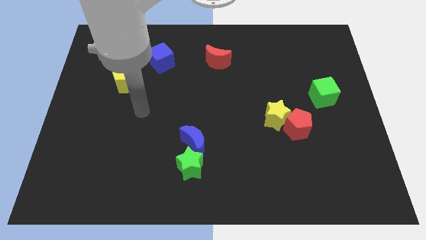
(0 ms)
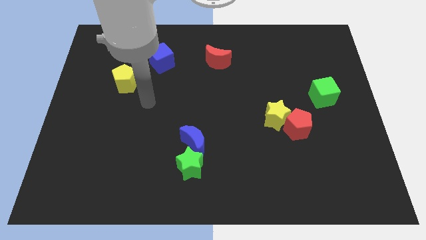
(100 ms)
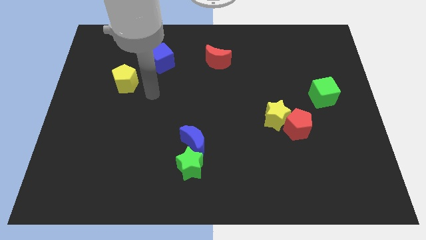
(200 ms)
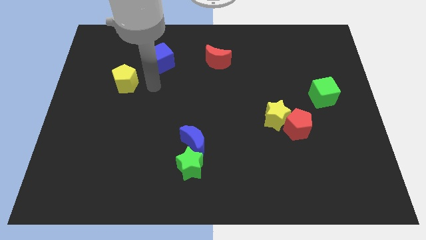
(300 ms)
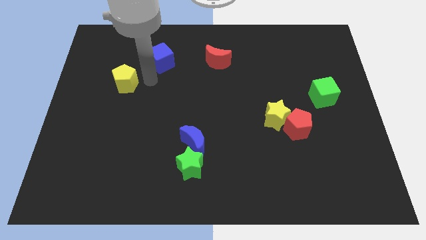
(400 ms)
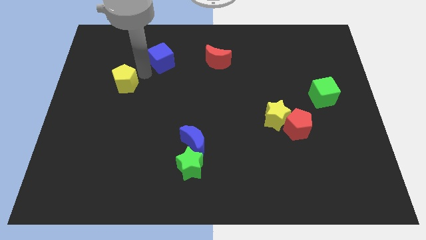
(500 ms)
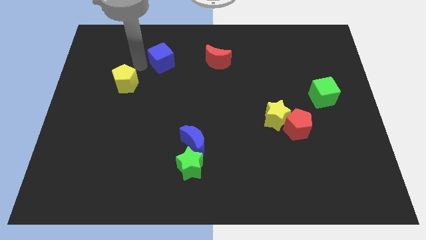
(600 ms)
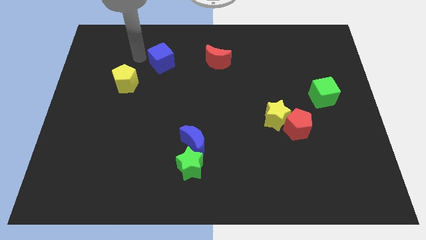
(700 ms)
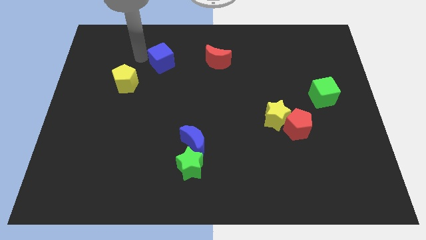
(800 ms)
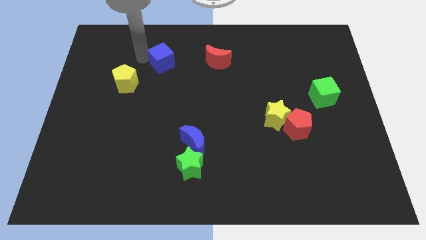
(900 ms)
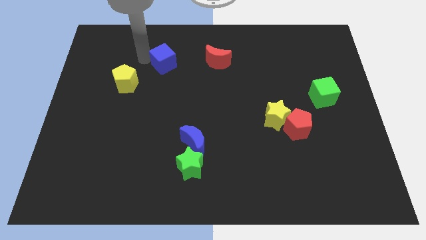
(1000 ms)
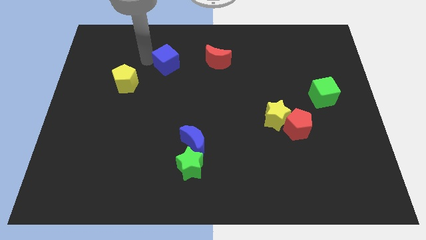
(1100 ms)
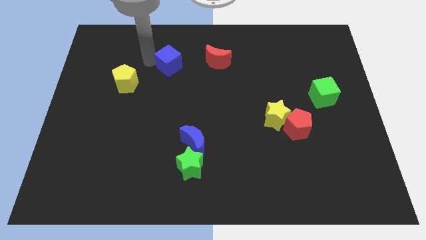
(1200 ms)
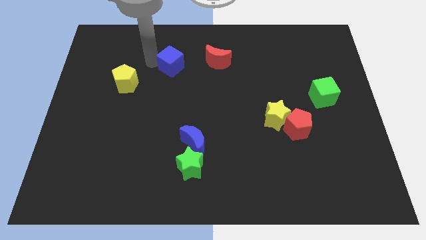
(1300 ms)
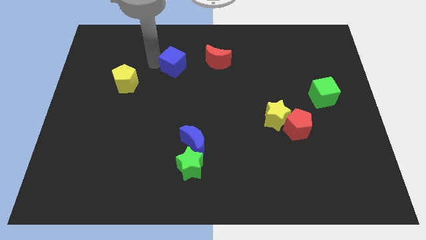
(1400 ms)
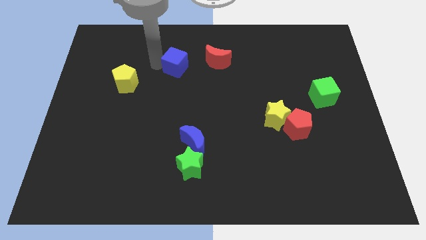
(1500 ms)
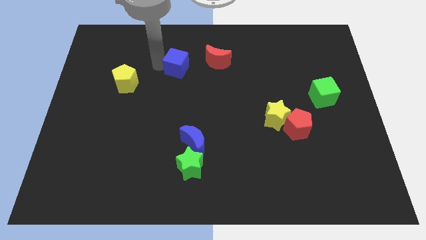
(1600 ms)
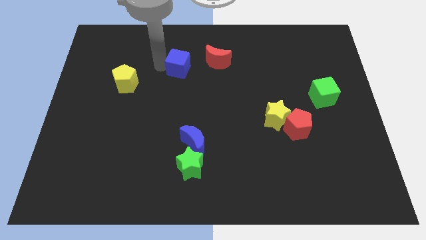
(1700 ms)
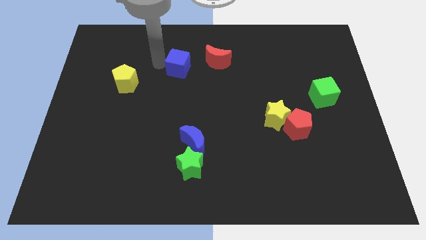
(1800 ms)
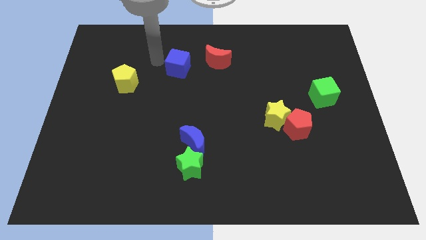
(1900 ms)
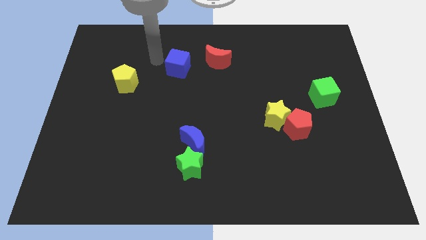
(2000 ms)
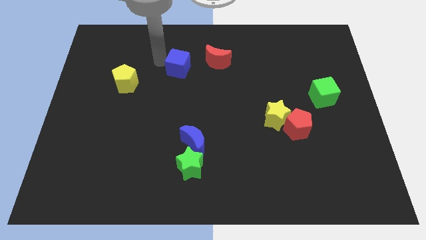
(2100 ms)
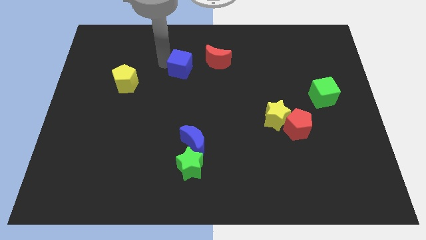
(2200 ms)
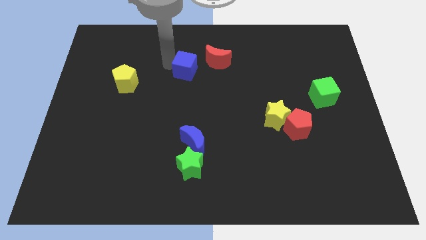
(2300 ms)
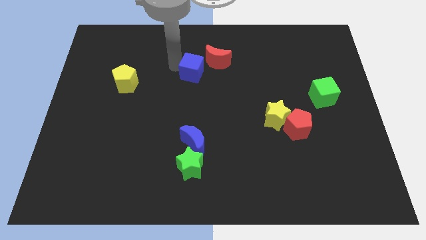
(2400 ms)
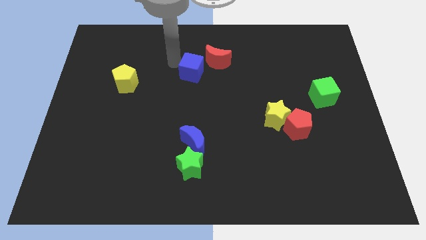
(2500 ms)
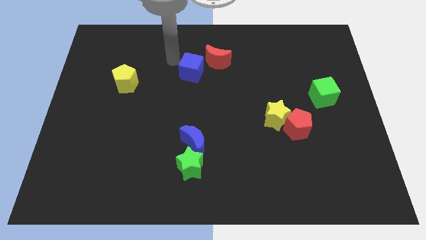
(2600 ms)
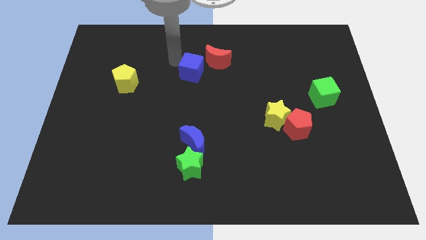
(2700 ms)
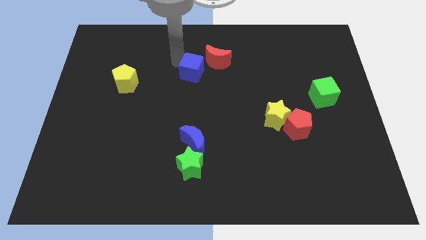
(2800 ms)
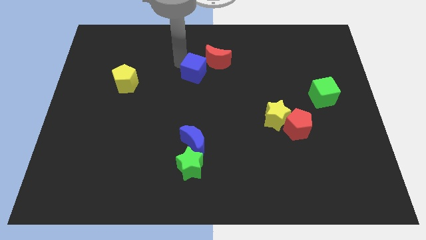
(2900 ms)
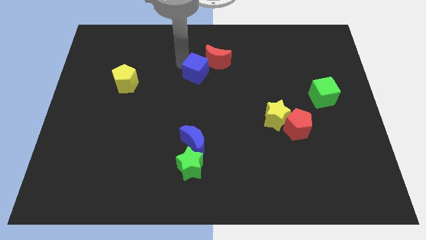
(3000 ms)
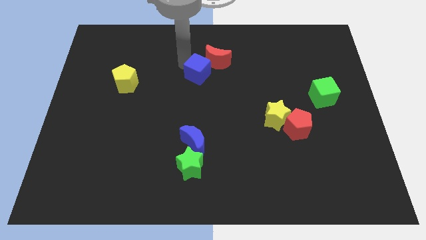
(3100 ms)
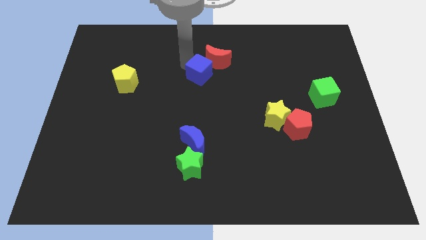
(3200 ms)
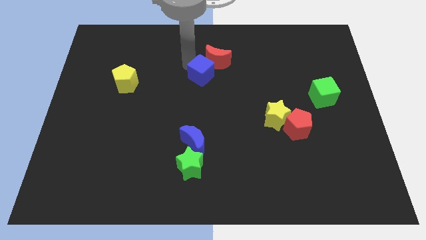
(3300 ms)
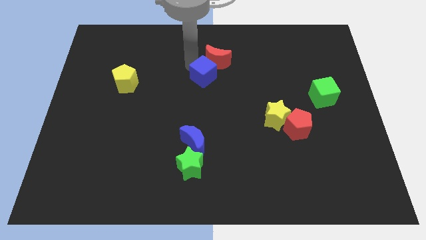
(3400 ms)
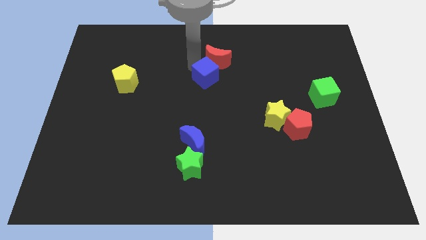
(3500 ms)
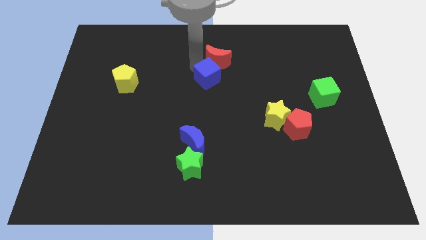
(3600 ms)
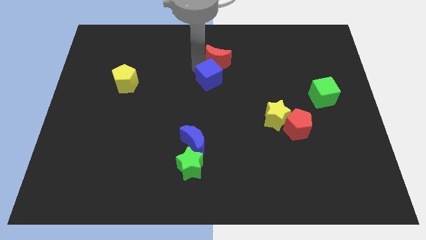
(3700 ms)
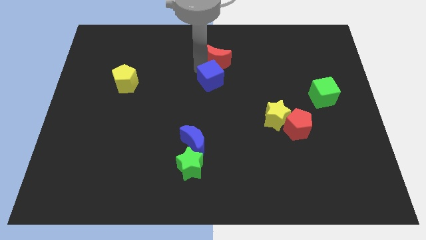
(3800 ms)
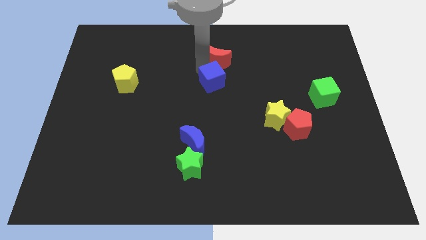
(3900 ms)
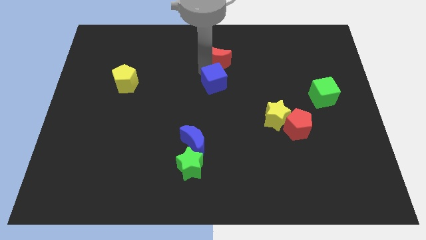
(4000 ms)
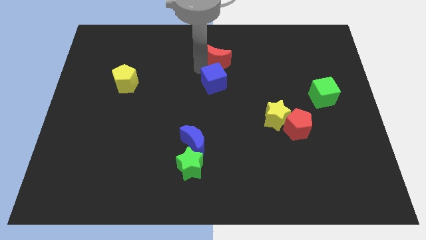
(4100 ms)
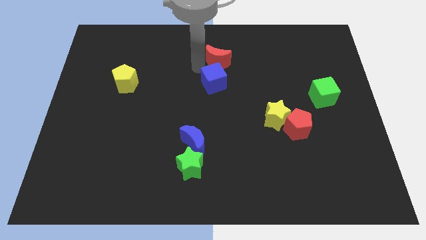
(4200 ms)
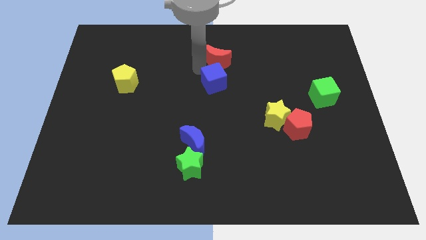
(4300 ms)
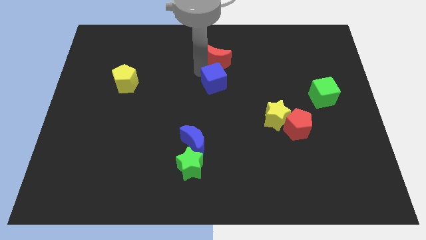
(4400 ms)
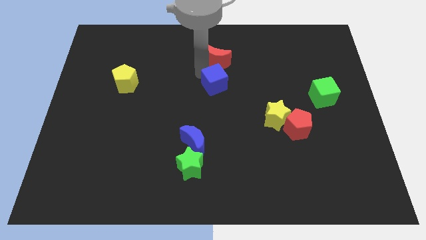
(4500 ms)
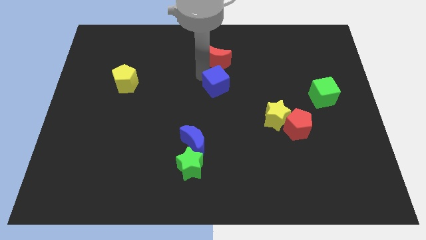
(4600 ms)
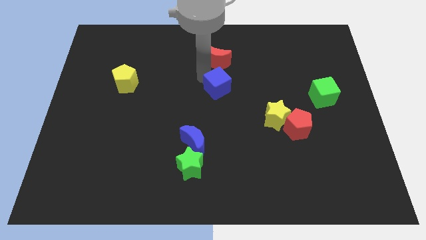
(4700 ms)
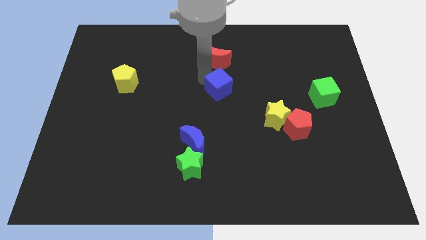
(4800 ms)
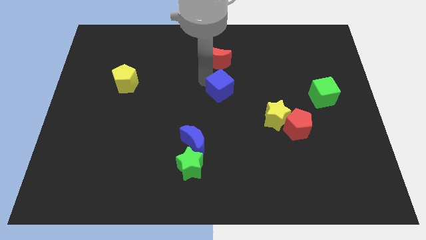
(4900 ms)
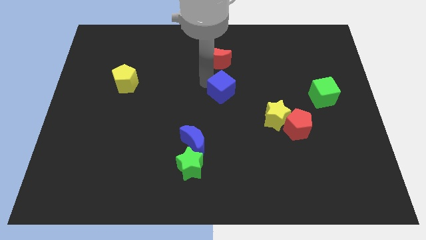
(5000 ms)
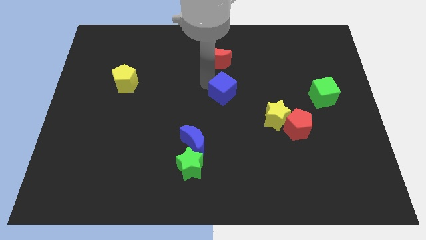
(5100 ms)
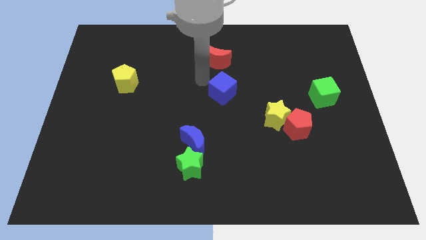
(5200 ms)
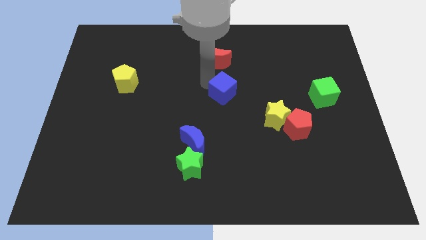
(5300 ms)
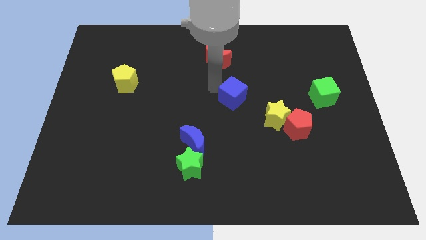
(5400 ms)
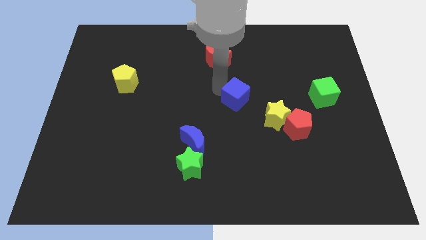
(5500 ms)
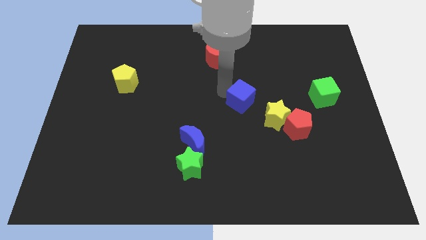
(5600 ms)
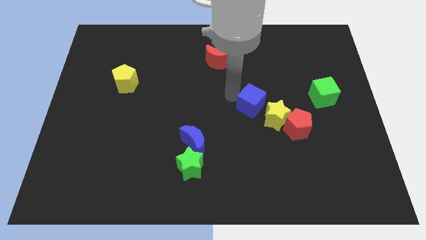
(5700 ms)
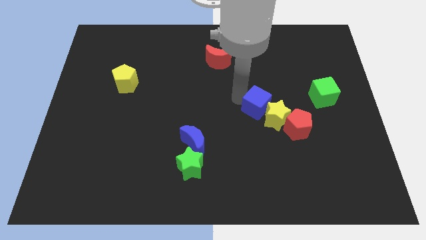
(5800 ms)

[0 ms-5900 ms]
put the blue cube towards the yellow star

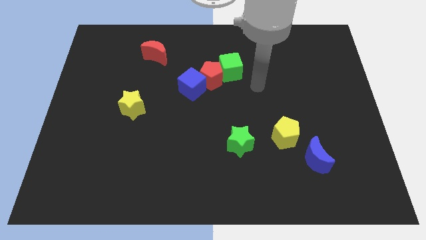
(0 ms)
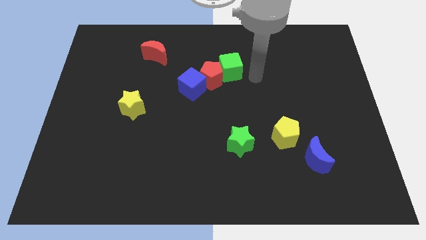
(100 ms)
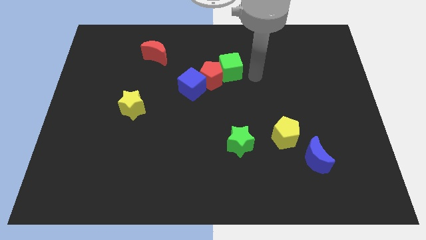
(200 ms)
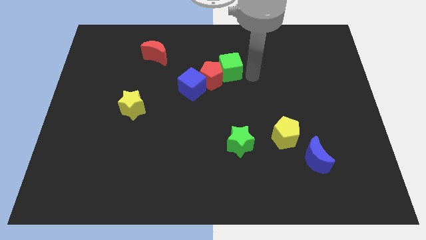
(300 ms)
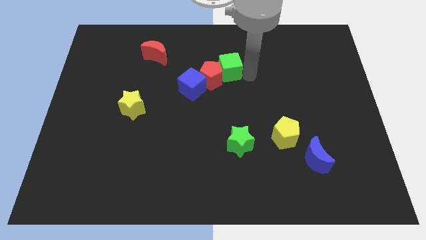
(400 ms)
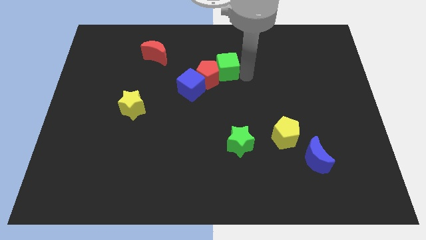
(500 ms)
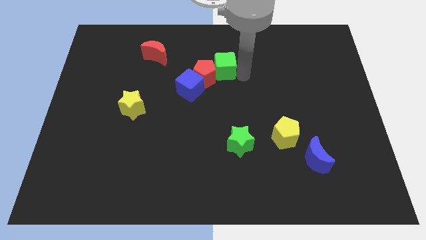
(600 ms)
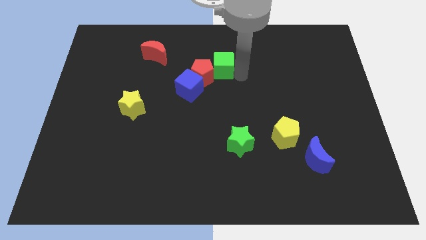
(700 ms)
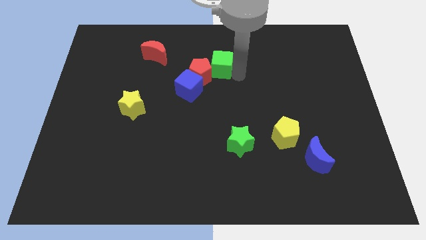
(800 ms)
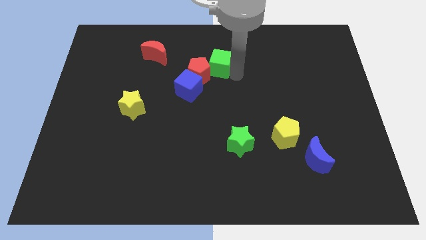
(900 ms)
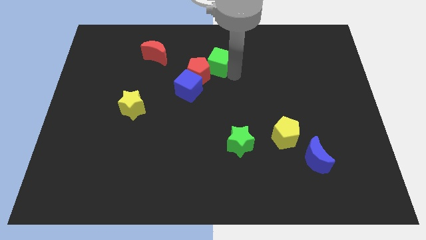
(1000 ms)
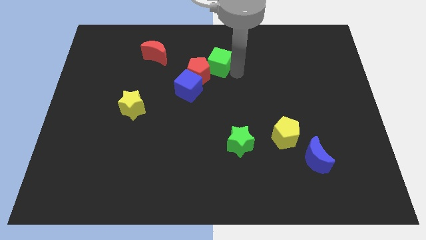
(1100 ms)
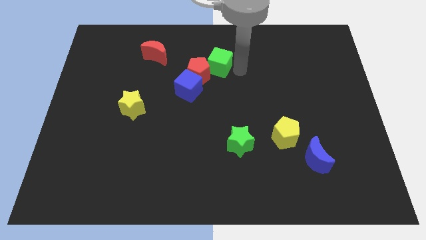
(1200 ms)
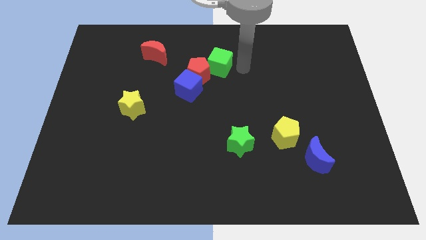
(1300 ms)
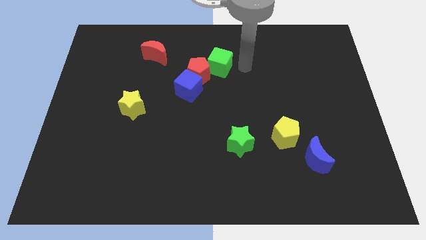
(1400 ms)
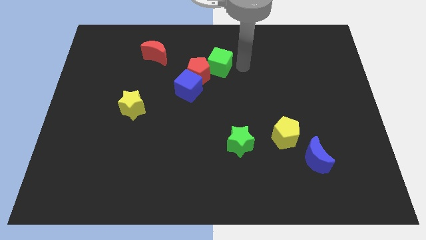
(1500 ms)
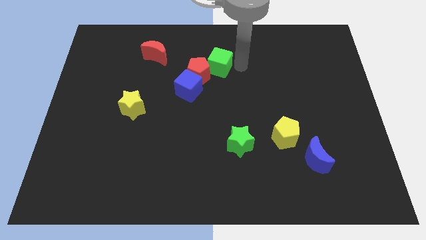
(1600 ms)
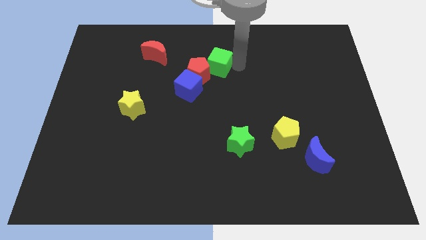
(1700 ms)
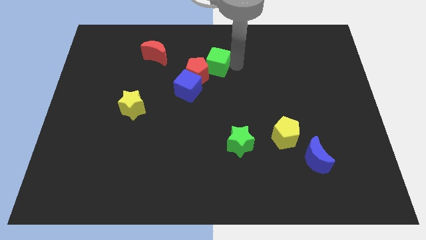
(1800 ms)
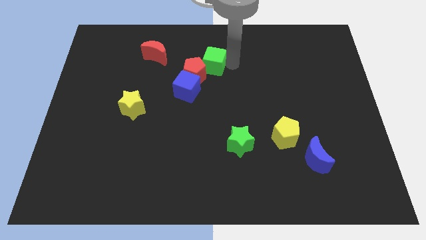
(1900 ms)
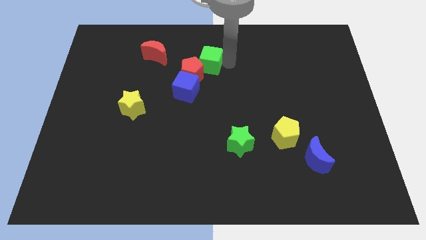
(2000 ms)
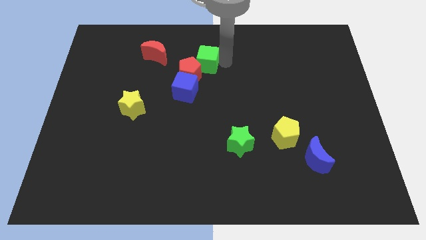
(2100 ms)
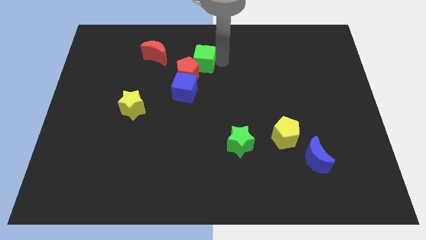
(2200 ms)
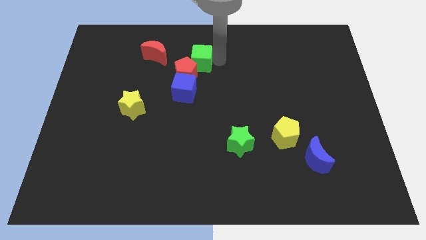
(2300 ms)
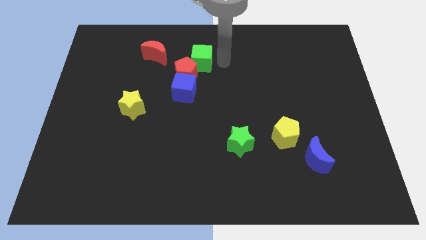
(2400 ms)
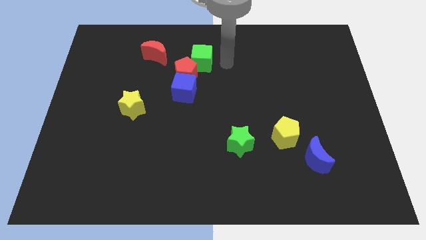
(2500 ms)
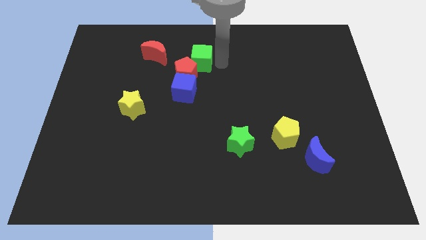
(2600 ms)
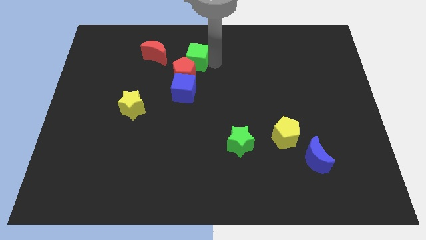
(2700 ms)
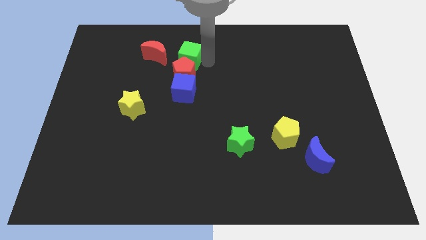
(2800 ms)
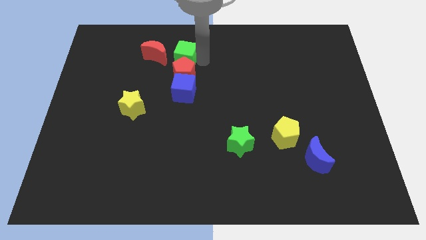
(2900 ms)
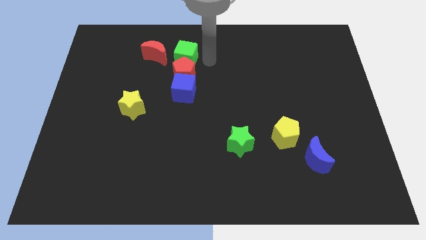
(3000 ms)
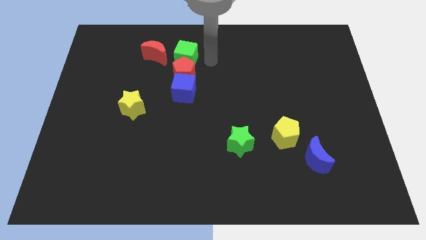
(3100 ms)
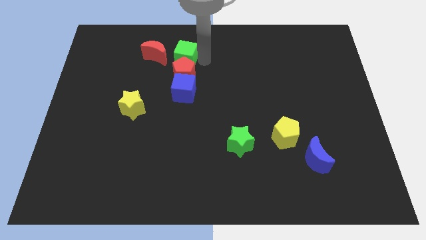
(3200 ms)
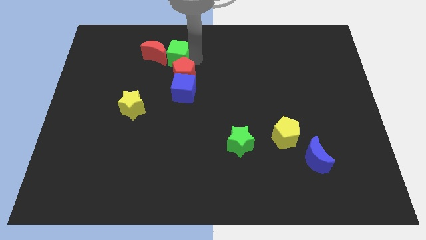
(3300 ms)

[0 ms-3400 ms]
slide the green cube to the red moon
